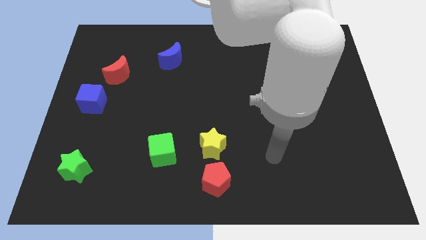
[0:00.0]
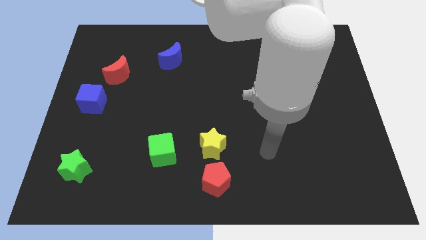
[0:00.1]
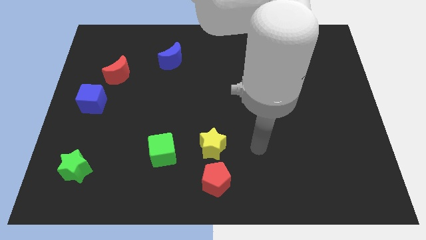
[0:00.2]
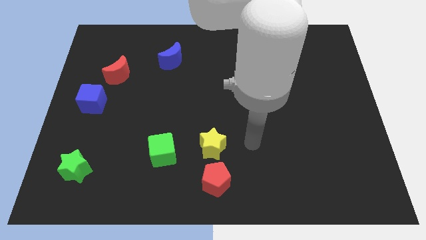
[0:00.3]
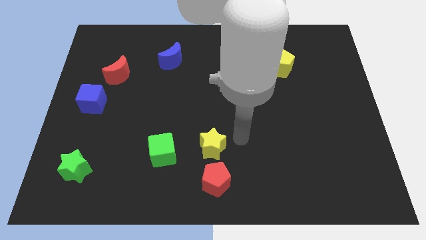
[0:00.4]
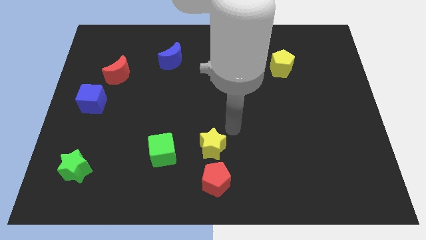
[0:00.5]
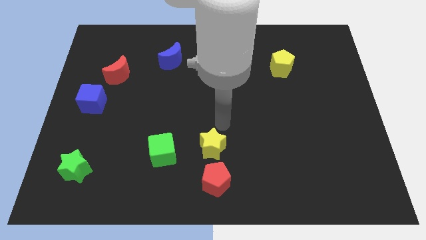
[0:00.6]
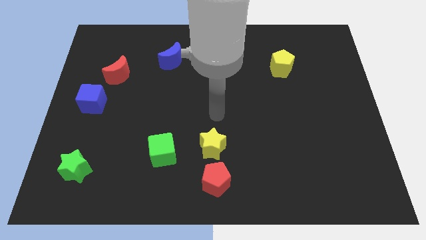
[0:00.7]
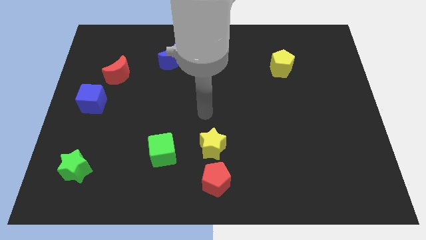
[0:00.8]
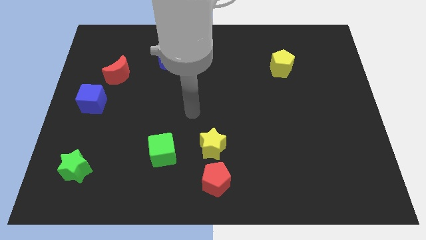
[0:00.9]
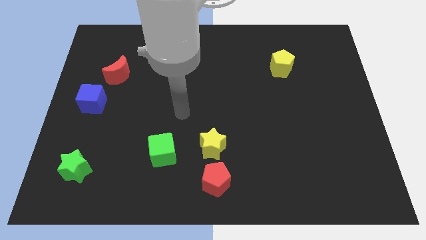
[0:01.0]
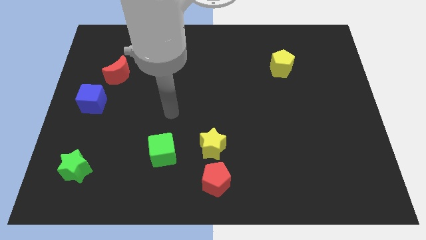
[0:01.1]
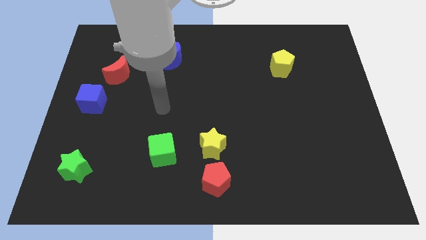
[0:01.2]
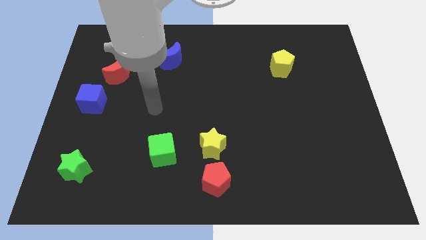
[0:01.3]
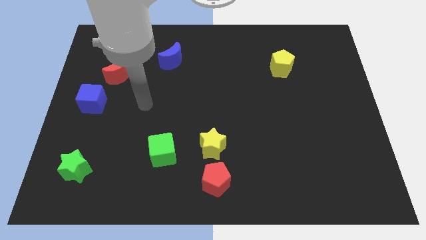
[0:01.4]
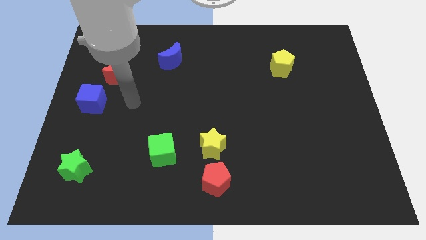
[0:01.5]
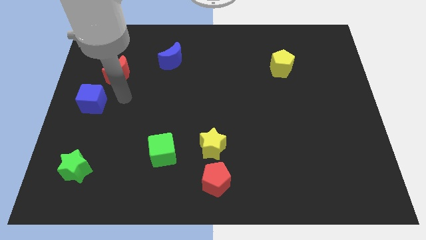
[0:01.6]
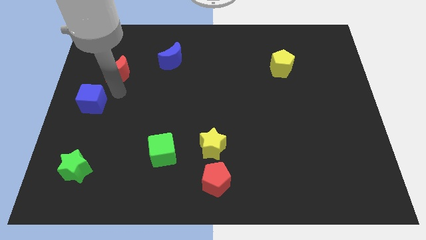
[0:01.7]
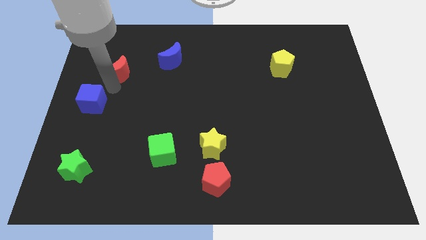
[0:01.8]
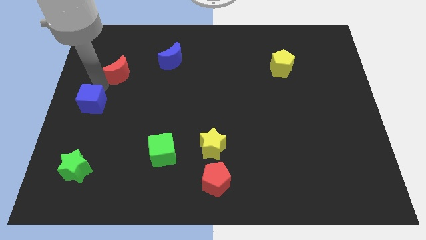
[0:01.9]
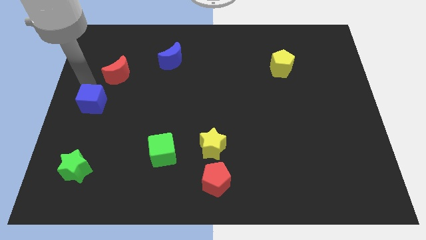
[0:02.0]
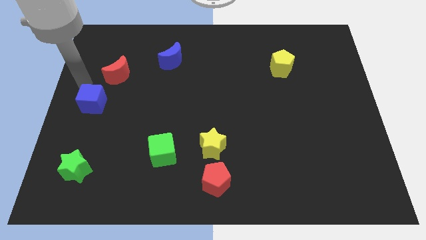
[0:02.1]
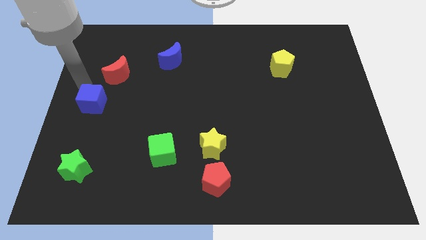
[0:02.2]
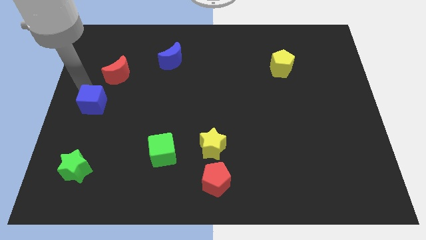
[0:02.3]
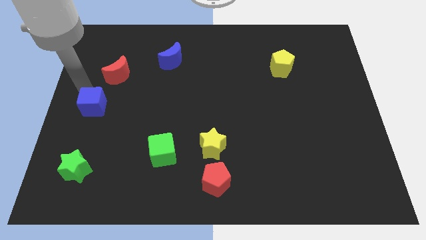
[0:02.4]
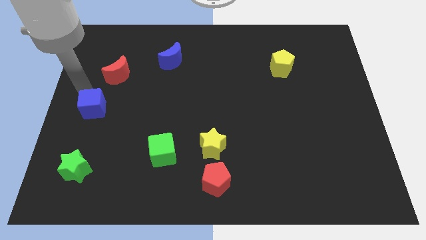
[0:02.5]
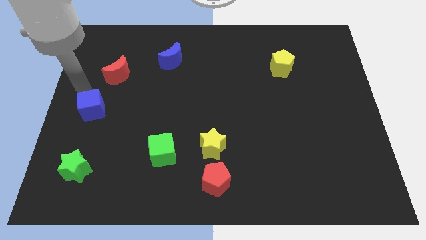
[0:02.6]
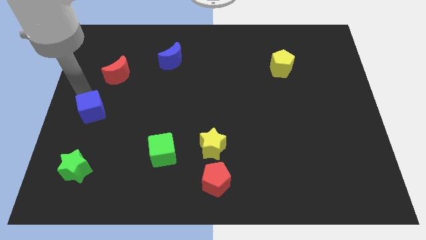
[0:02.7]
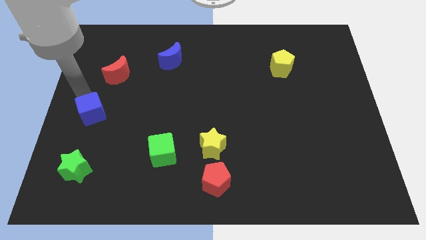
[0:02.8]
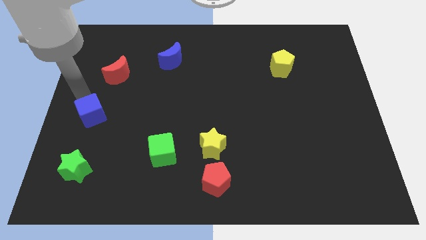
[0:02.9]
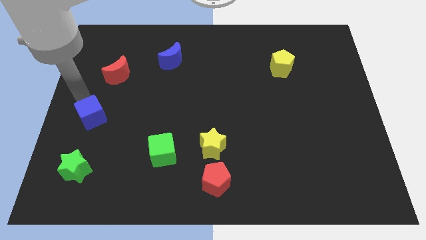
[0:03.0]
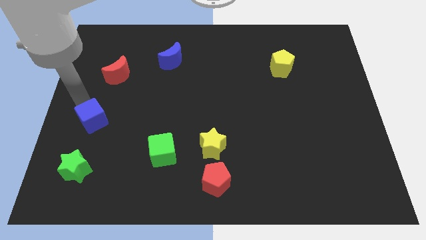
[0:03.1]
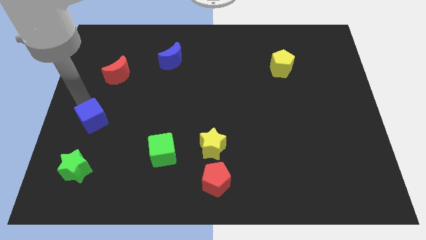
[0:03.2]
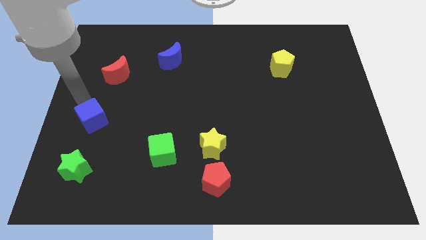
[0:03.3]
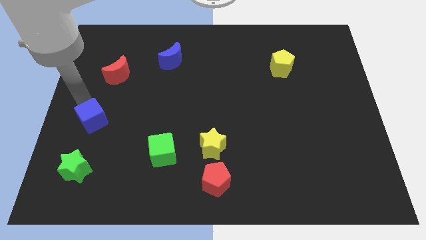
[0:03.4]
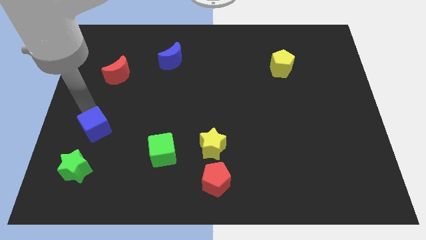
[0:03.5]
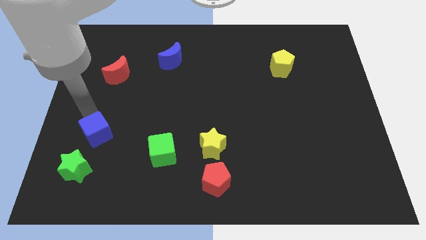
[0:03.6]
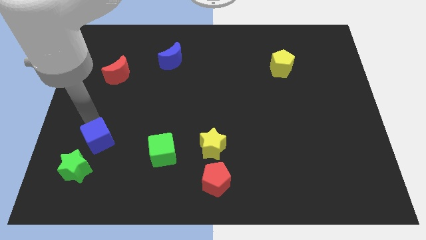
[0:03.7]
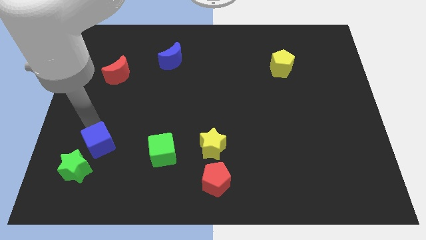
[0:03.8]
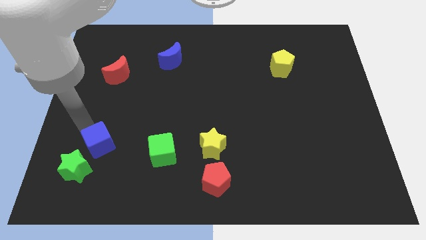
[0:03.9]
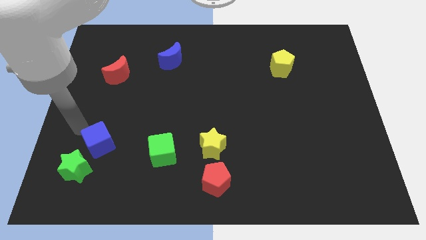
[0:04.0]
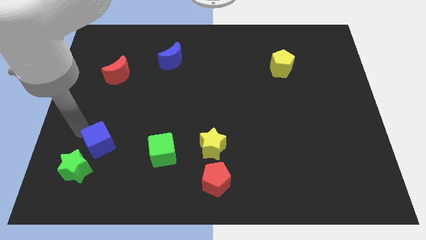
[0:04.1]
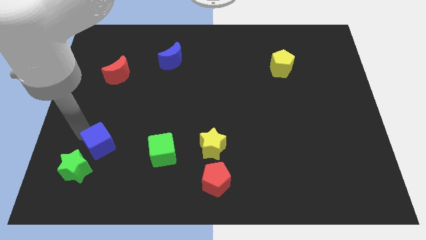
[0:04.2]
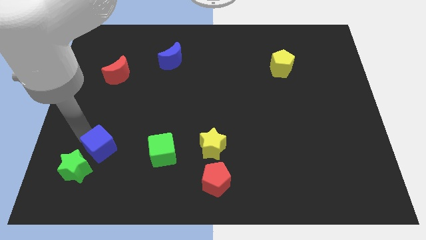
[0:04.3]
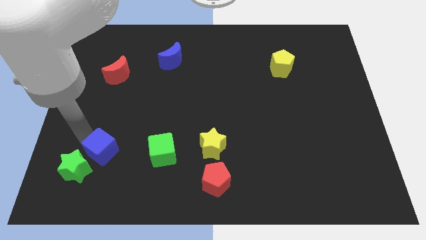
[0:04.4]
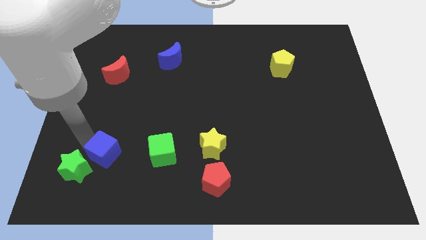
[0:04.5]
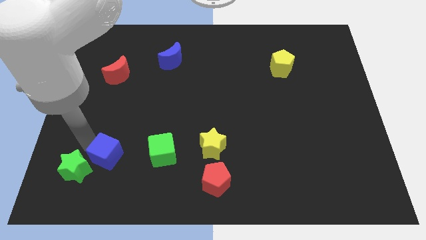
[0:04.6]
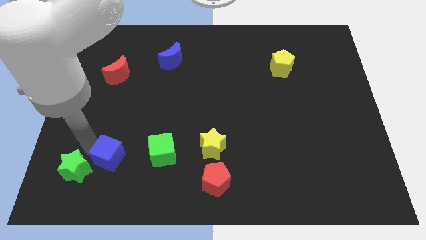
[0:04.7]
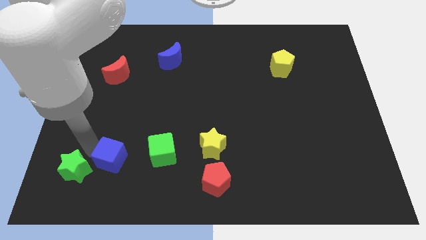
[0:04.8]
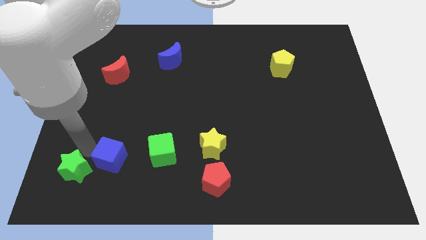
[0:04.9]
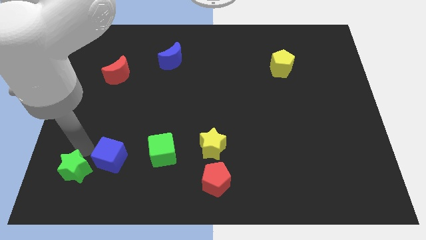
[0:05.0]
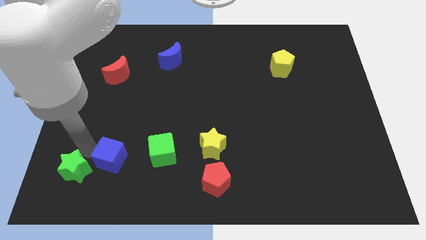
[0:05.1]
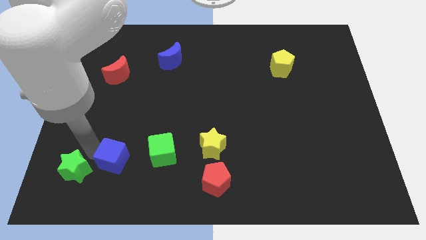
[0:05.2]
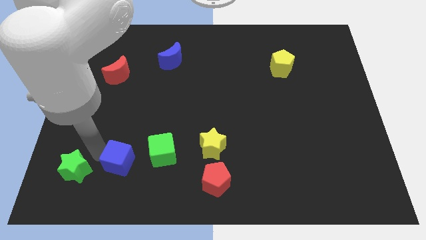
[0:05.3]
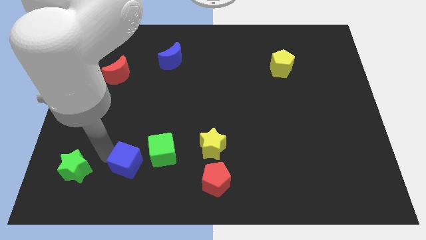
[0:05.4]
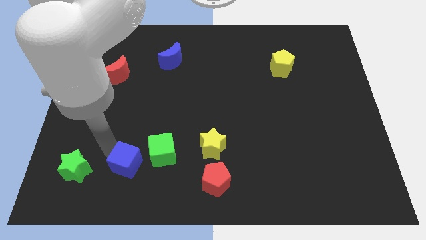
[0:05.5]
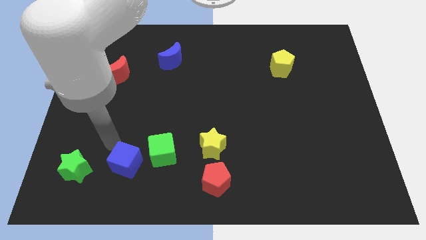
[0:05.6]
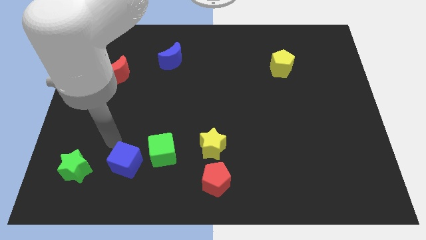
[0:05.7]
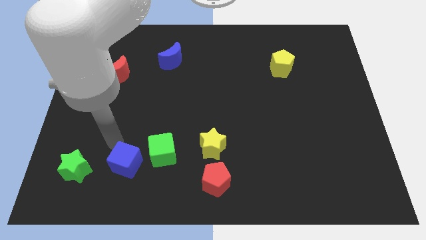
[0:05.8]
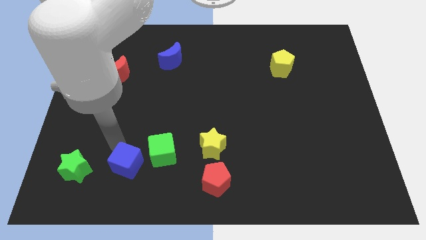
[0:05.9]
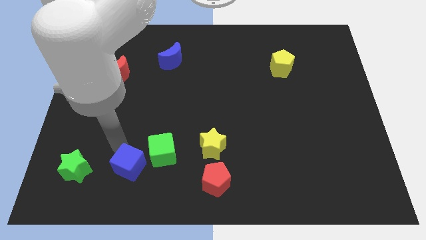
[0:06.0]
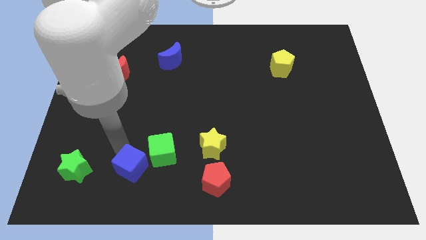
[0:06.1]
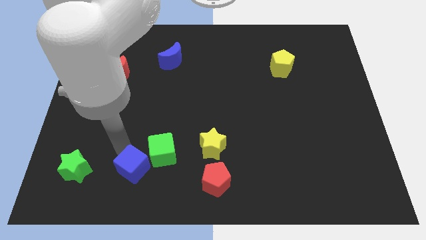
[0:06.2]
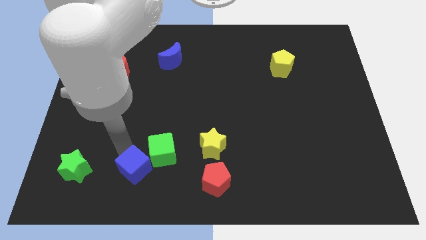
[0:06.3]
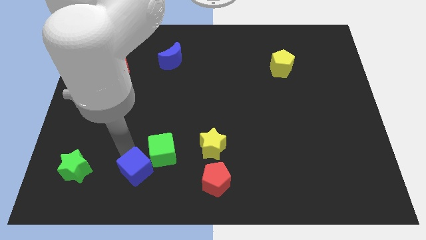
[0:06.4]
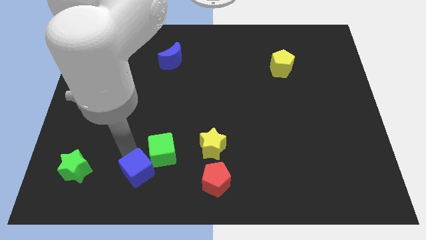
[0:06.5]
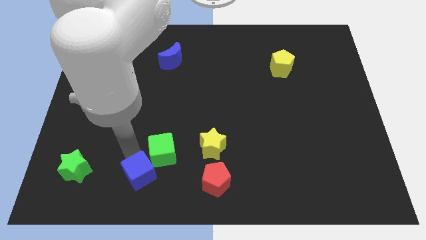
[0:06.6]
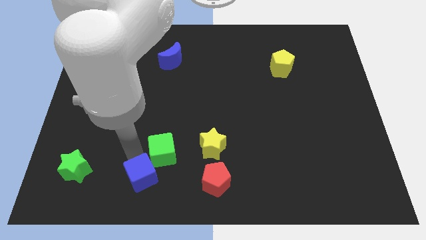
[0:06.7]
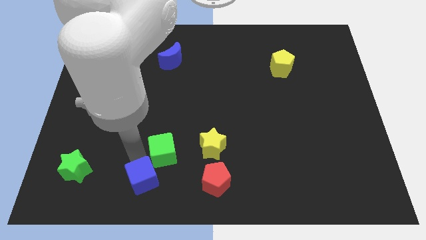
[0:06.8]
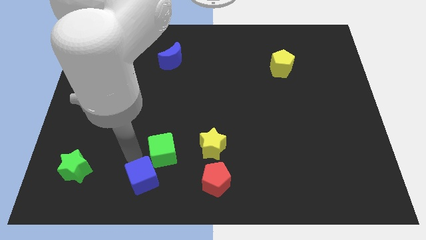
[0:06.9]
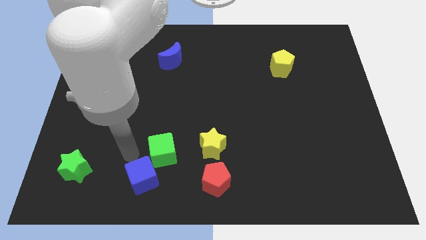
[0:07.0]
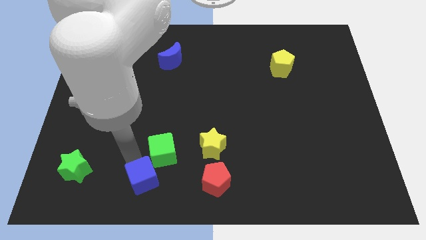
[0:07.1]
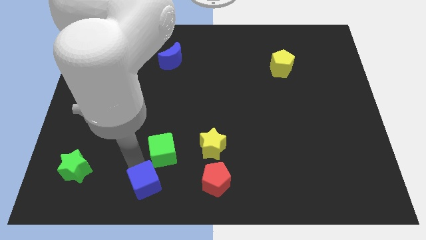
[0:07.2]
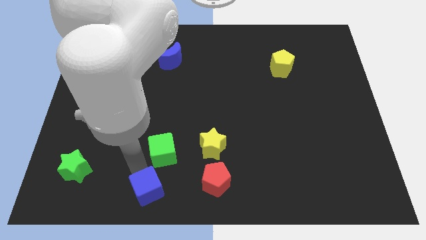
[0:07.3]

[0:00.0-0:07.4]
move the blue cube to the bottom side
